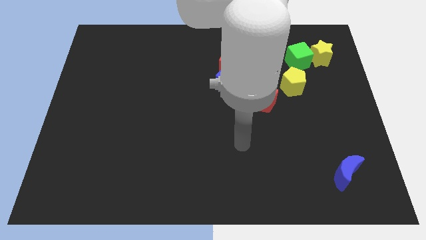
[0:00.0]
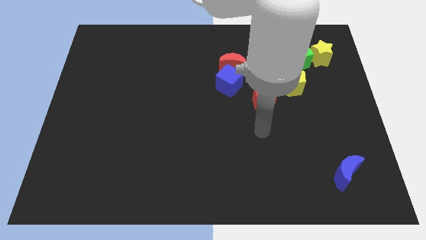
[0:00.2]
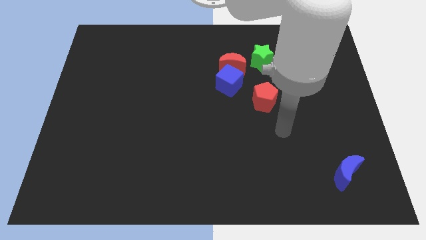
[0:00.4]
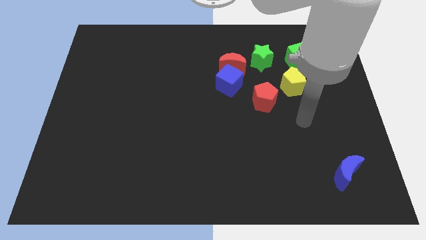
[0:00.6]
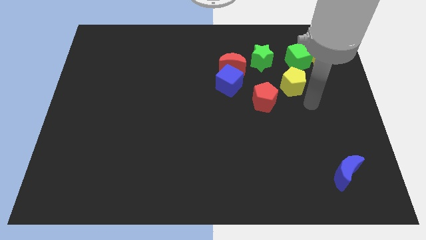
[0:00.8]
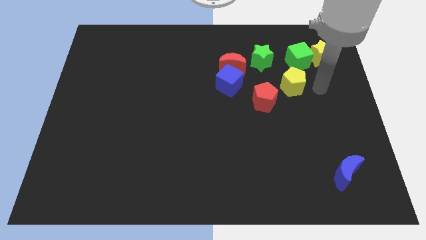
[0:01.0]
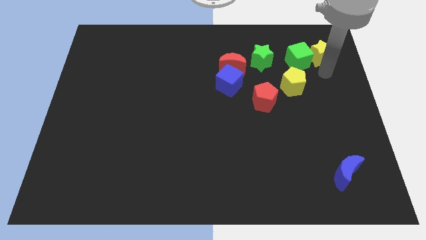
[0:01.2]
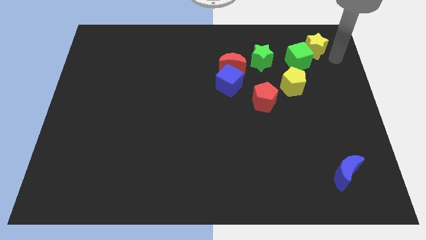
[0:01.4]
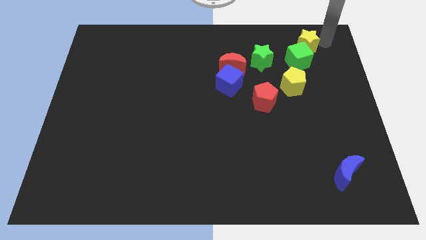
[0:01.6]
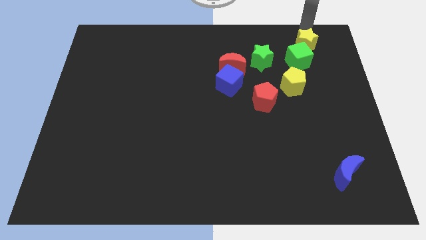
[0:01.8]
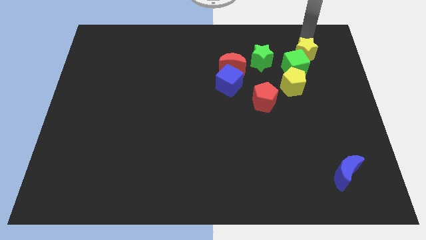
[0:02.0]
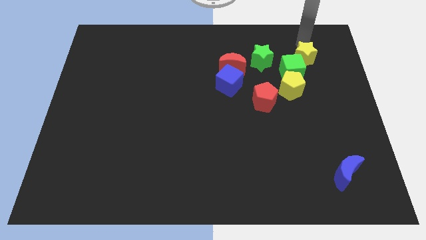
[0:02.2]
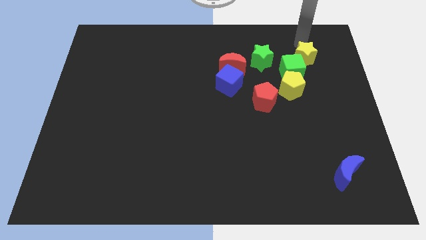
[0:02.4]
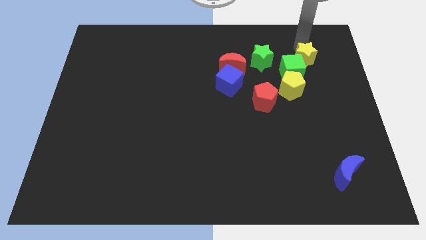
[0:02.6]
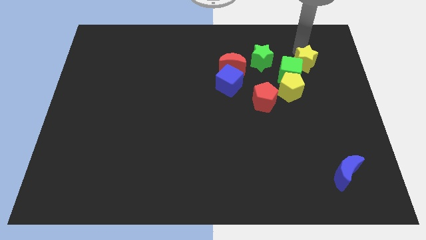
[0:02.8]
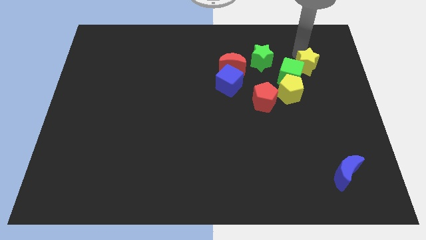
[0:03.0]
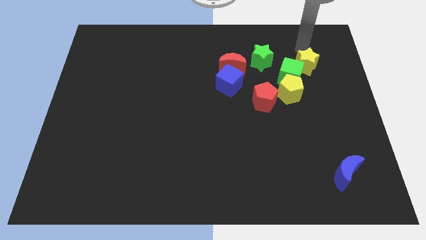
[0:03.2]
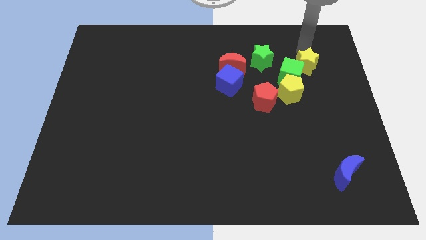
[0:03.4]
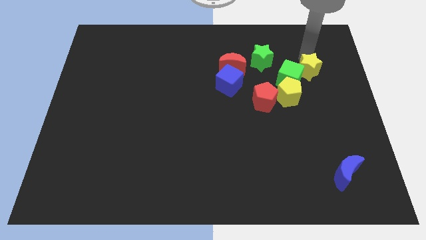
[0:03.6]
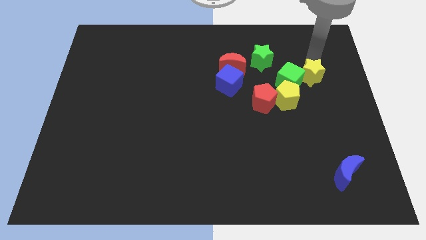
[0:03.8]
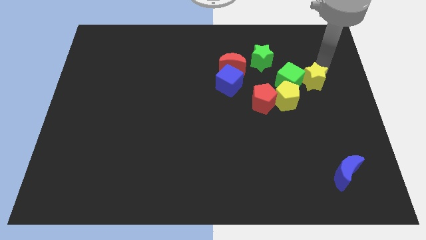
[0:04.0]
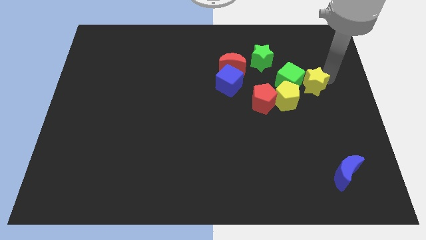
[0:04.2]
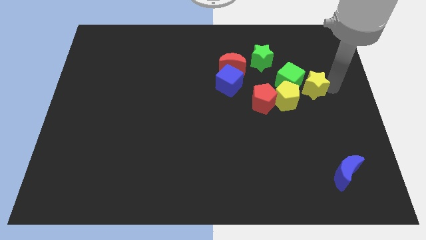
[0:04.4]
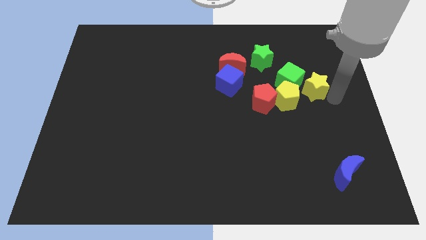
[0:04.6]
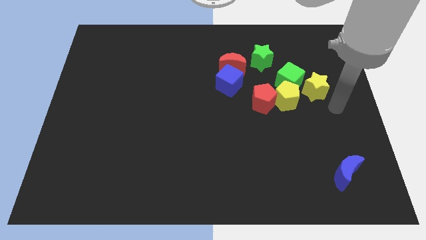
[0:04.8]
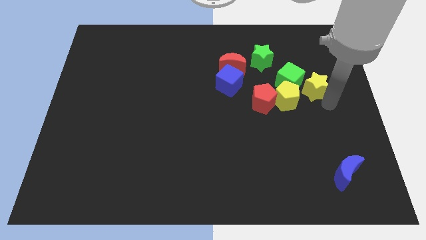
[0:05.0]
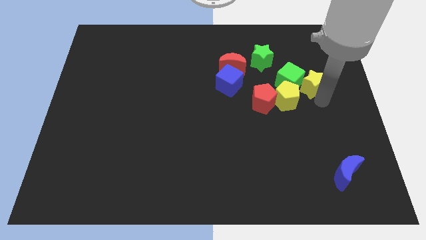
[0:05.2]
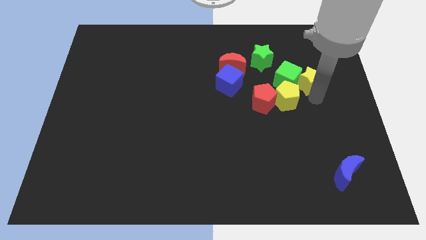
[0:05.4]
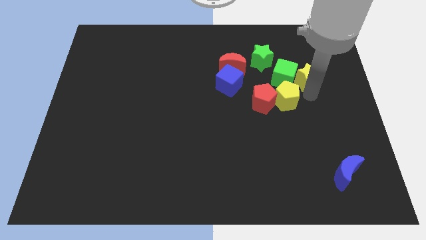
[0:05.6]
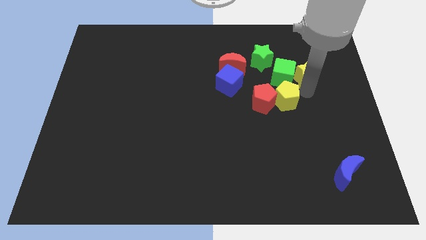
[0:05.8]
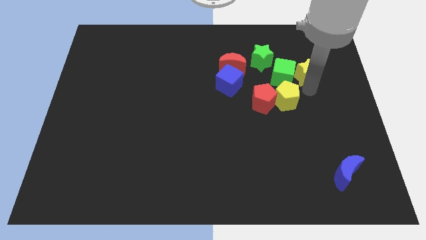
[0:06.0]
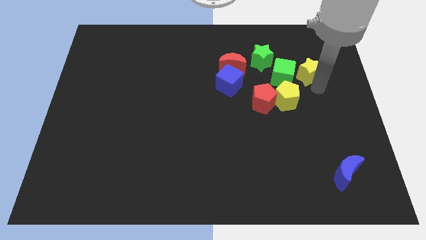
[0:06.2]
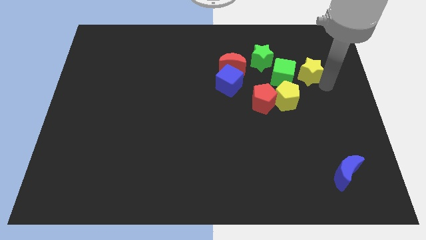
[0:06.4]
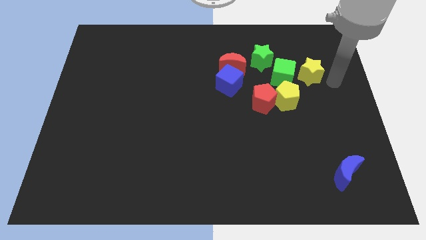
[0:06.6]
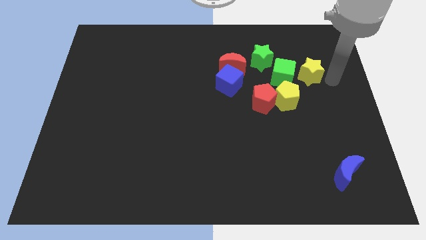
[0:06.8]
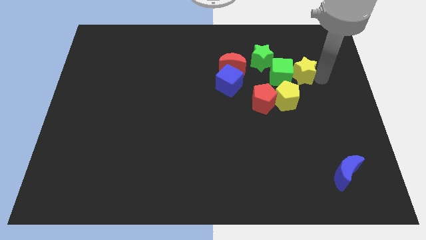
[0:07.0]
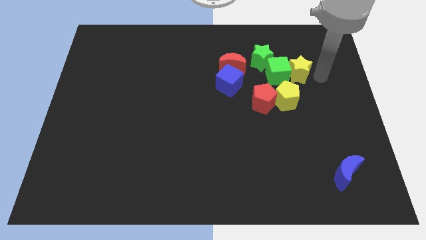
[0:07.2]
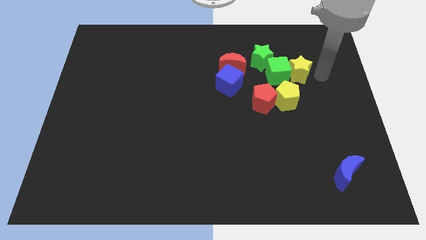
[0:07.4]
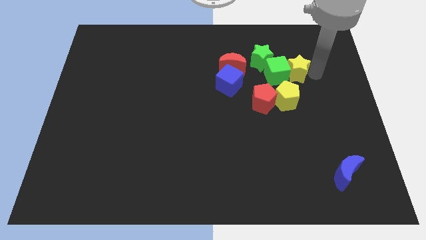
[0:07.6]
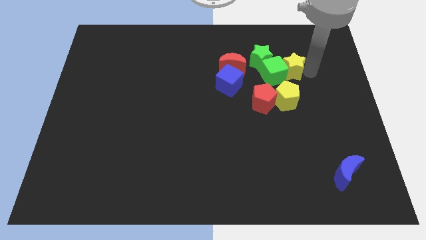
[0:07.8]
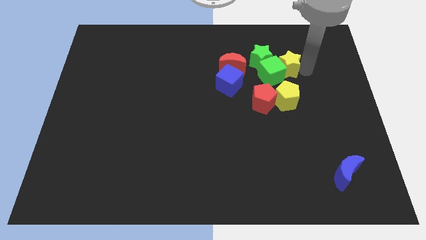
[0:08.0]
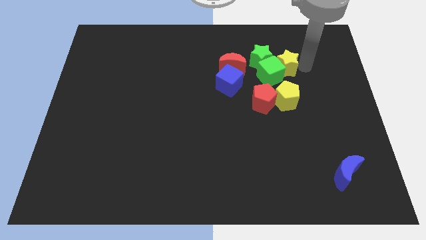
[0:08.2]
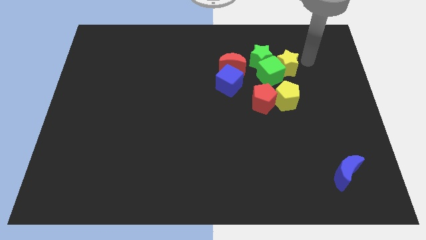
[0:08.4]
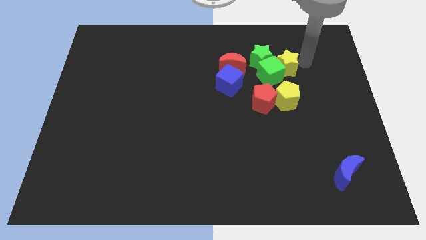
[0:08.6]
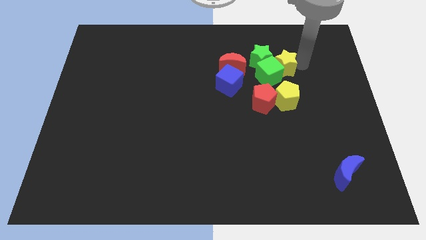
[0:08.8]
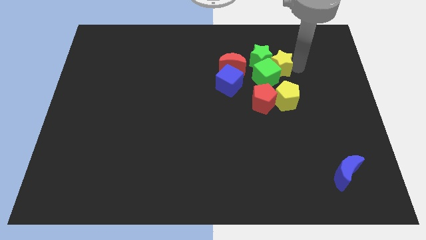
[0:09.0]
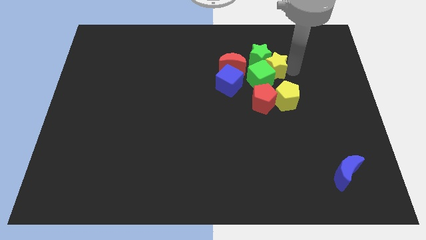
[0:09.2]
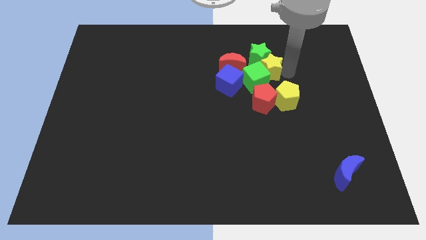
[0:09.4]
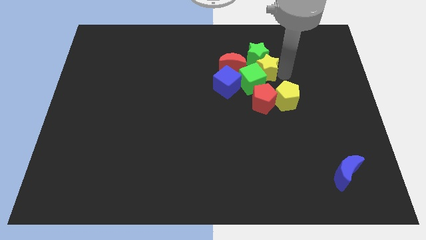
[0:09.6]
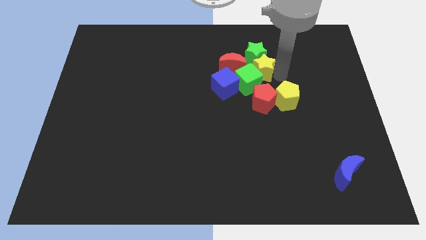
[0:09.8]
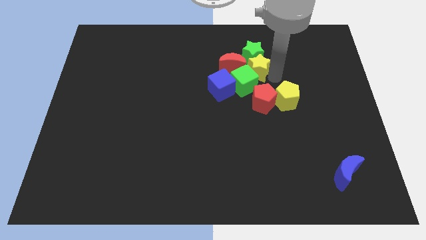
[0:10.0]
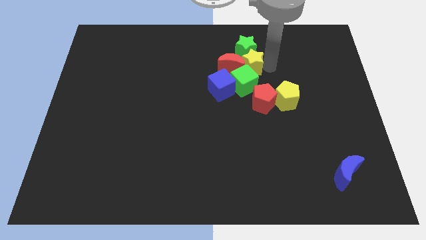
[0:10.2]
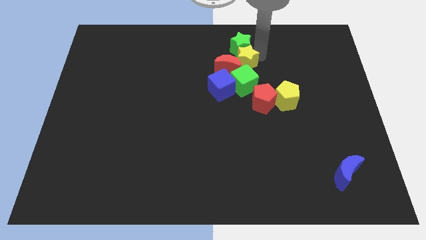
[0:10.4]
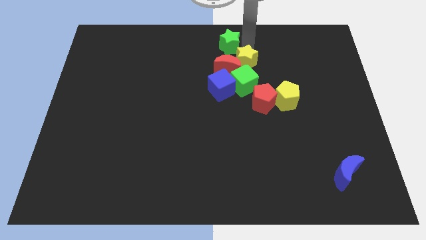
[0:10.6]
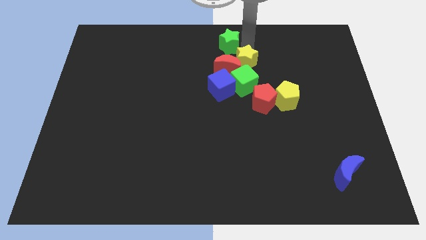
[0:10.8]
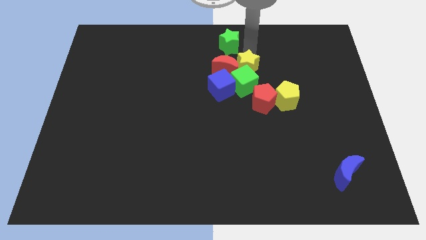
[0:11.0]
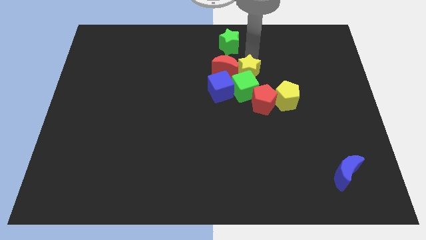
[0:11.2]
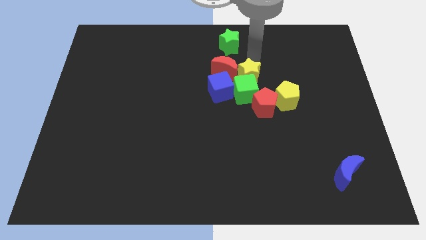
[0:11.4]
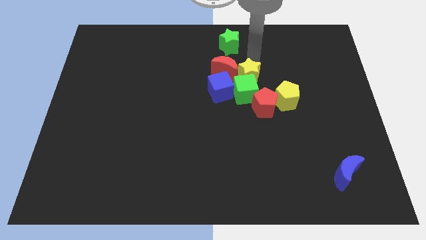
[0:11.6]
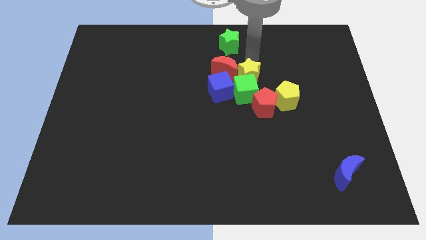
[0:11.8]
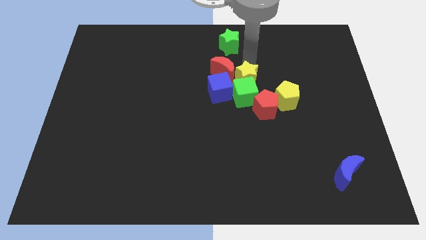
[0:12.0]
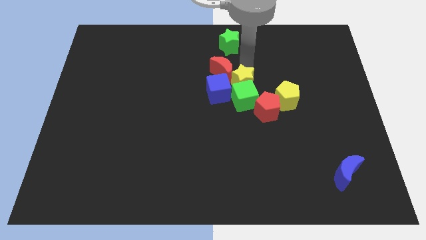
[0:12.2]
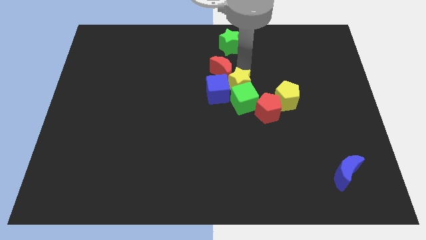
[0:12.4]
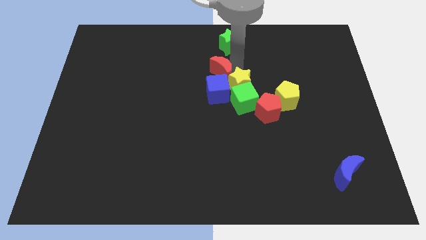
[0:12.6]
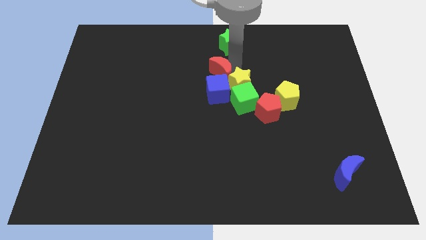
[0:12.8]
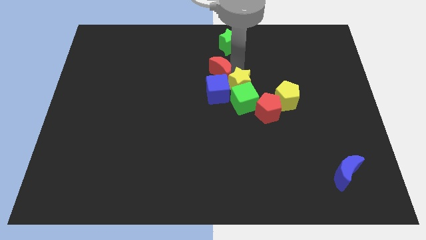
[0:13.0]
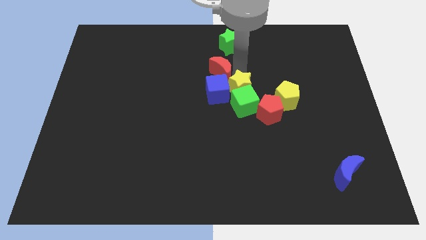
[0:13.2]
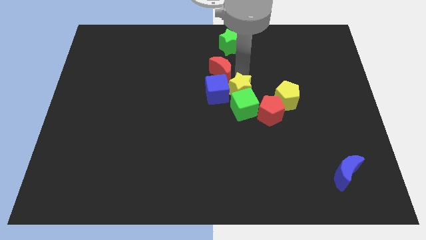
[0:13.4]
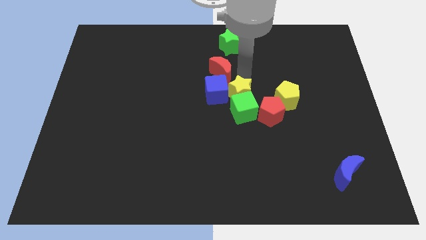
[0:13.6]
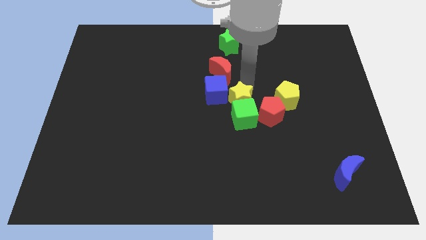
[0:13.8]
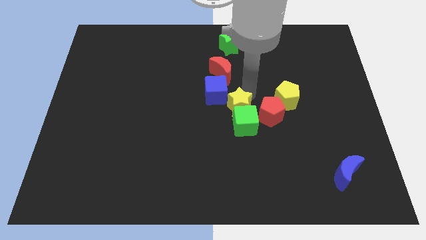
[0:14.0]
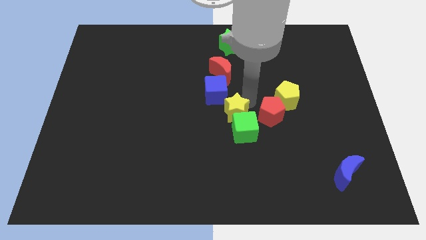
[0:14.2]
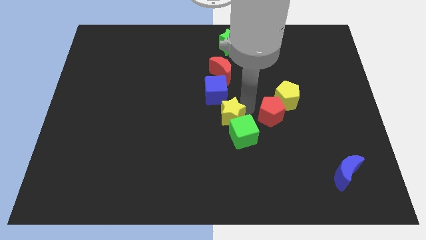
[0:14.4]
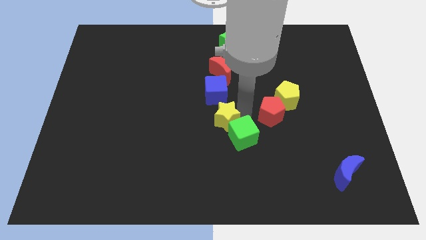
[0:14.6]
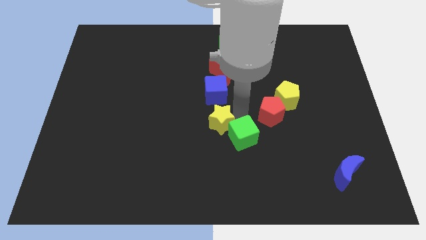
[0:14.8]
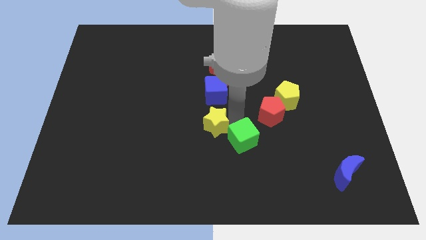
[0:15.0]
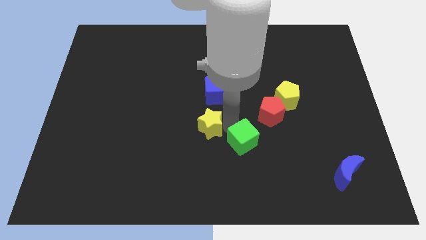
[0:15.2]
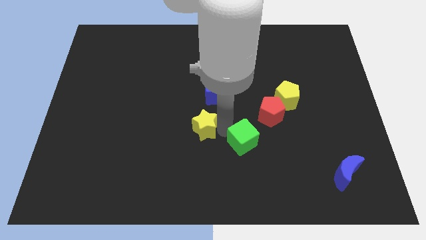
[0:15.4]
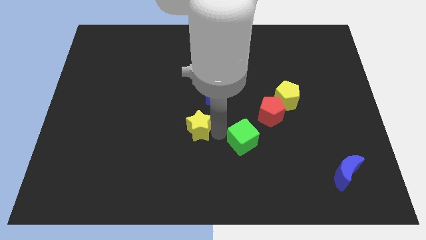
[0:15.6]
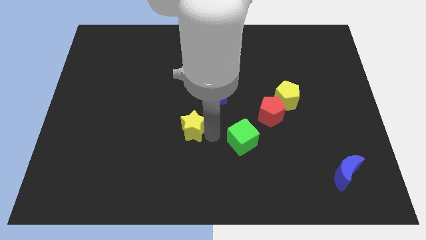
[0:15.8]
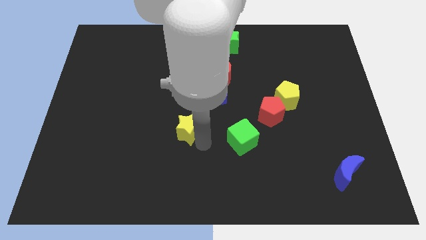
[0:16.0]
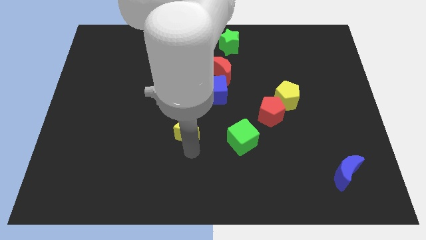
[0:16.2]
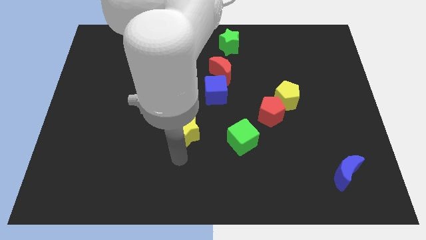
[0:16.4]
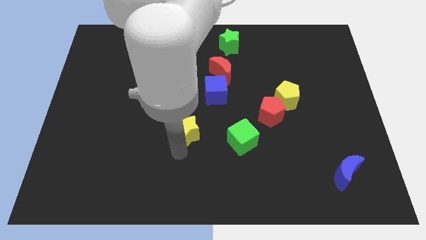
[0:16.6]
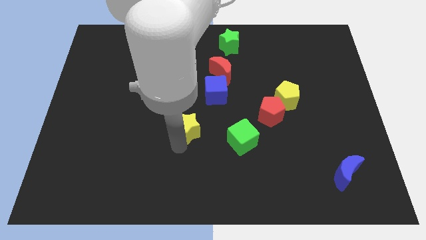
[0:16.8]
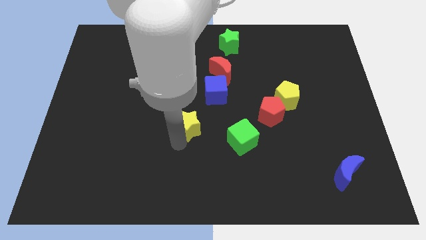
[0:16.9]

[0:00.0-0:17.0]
slide the yellow star to the bottom left side of the blue cube
